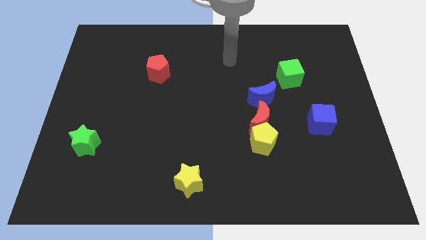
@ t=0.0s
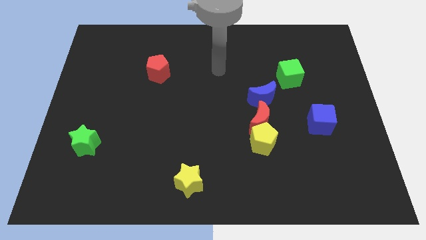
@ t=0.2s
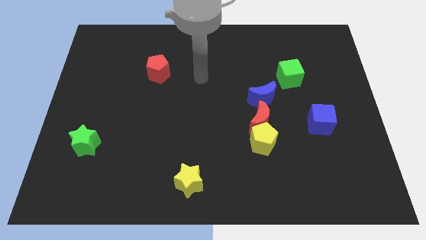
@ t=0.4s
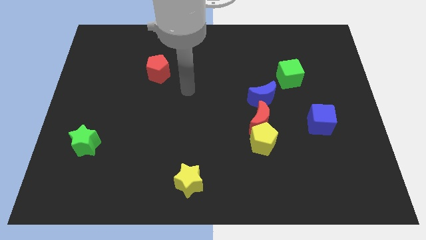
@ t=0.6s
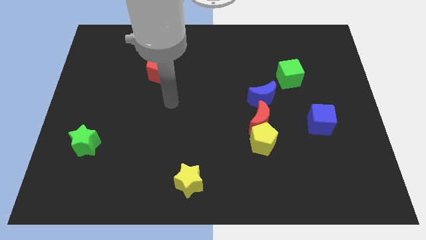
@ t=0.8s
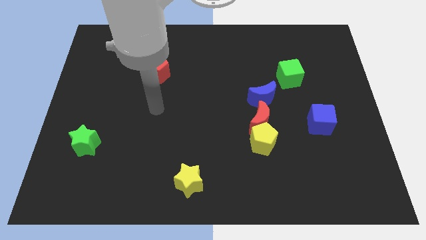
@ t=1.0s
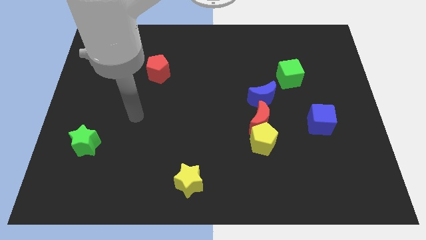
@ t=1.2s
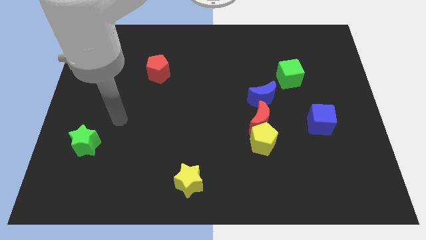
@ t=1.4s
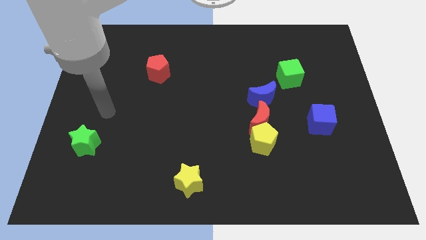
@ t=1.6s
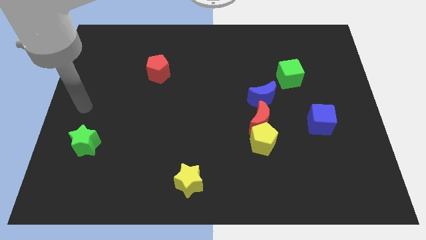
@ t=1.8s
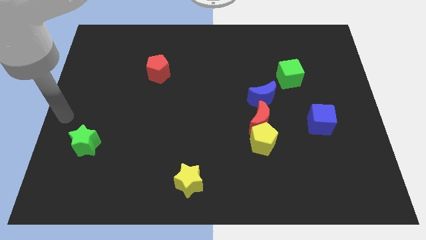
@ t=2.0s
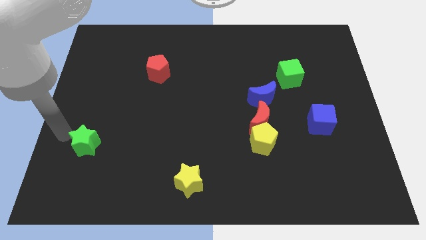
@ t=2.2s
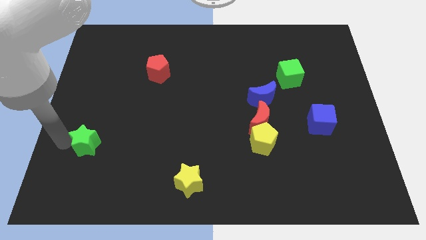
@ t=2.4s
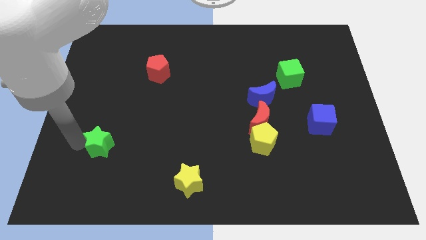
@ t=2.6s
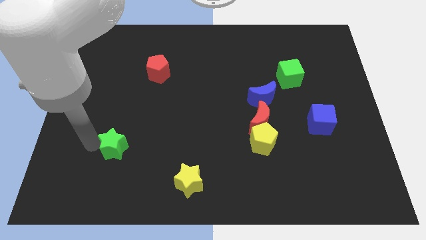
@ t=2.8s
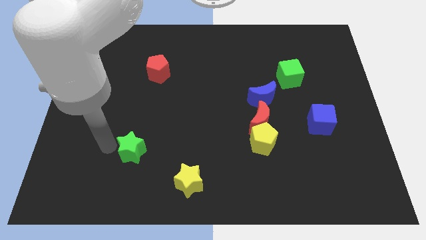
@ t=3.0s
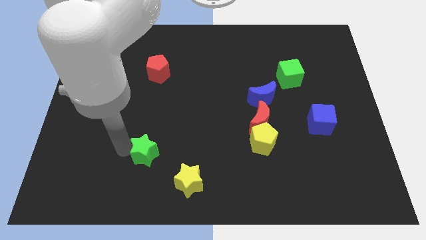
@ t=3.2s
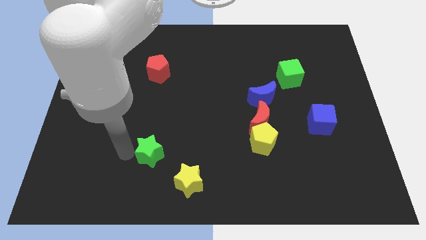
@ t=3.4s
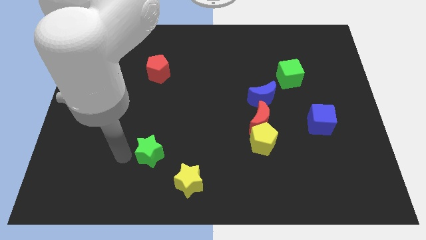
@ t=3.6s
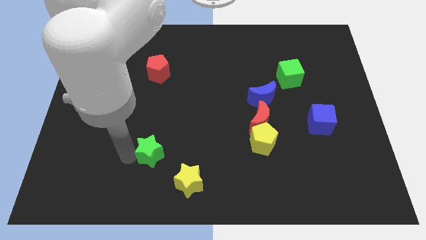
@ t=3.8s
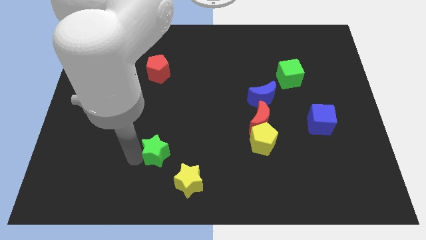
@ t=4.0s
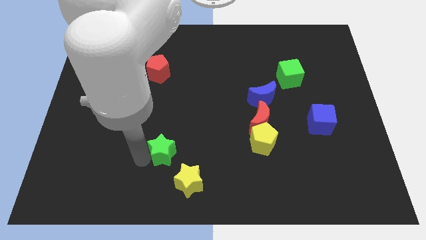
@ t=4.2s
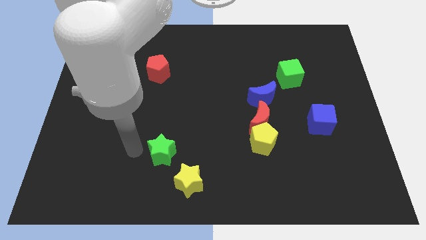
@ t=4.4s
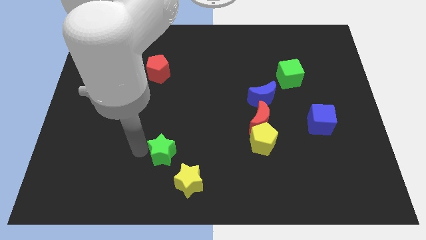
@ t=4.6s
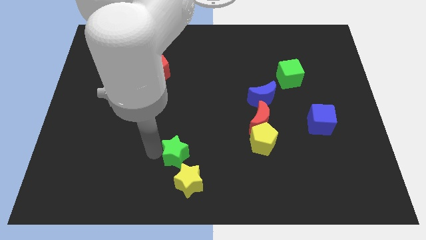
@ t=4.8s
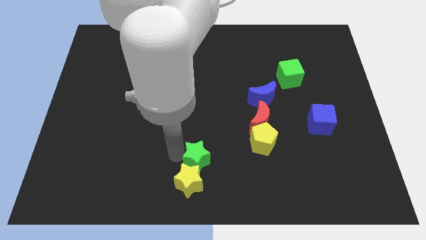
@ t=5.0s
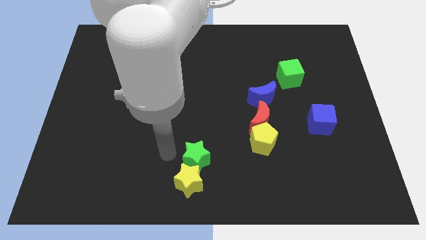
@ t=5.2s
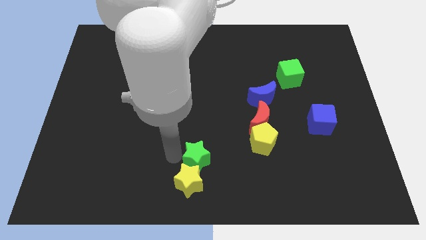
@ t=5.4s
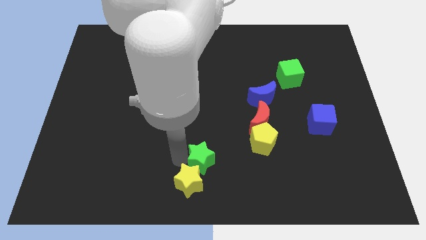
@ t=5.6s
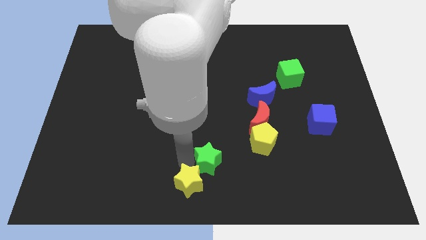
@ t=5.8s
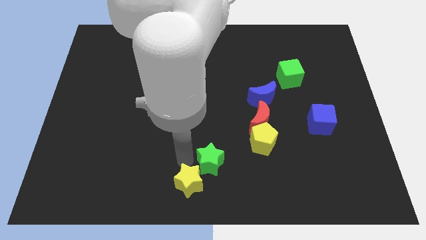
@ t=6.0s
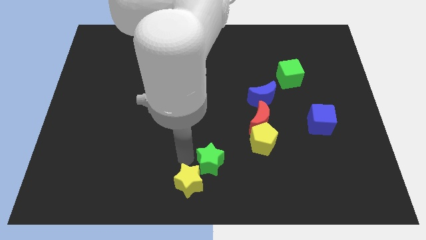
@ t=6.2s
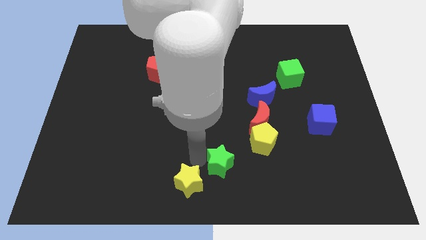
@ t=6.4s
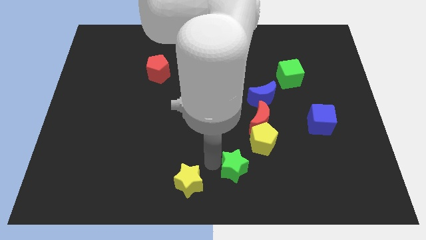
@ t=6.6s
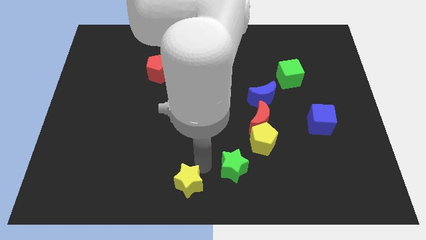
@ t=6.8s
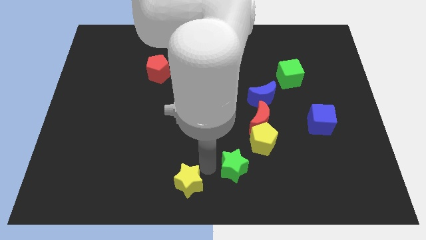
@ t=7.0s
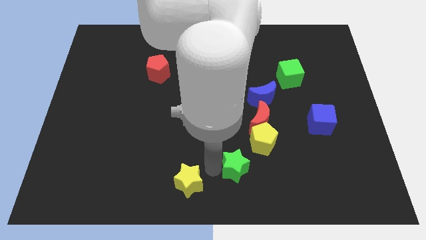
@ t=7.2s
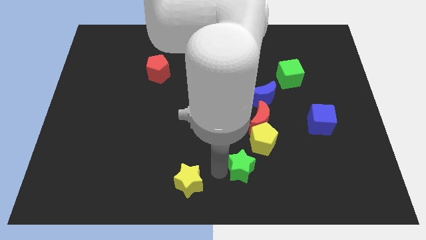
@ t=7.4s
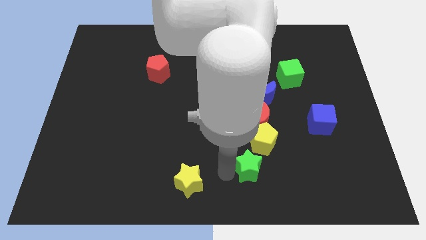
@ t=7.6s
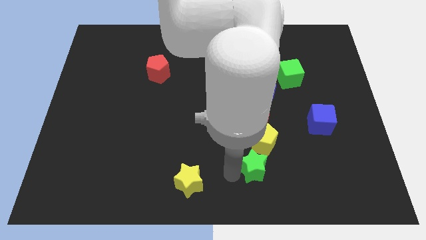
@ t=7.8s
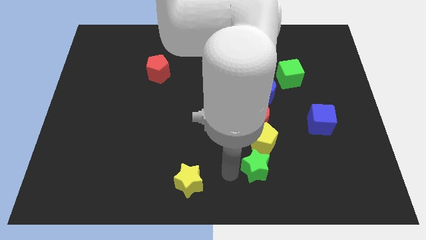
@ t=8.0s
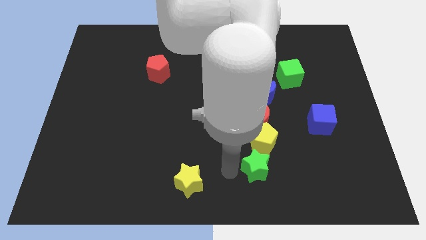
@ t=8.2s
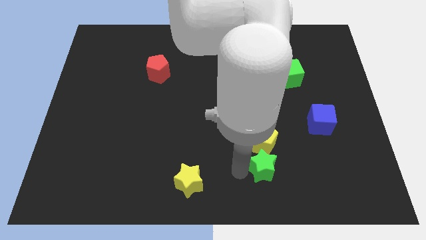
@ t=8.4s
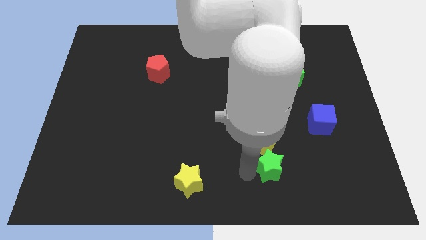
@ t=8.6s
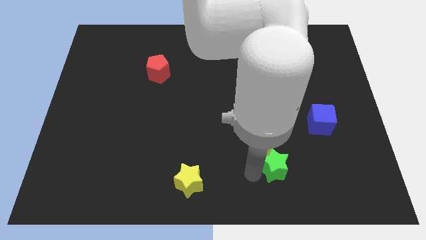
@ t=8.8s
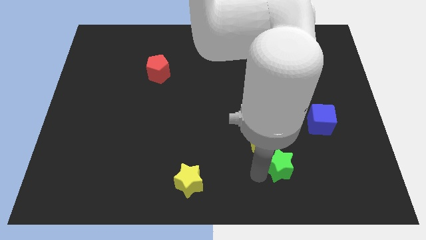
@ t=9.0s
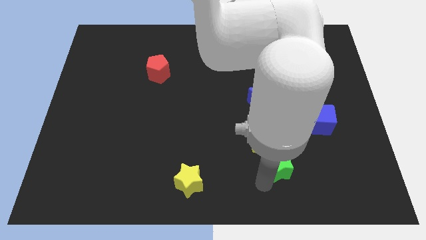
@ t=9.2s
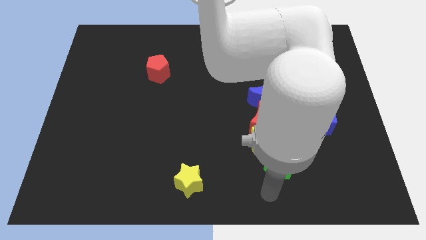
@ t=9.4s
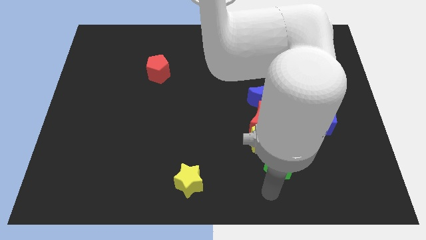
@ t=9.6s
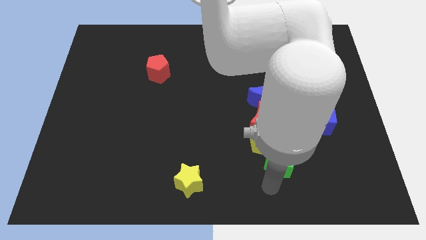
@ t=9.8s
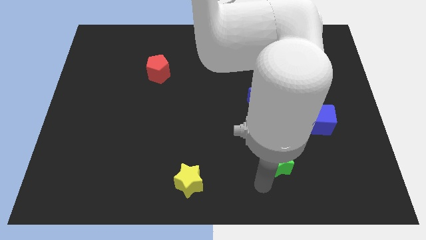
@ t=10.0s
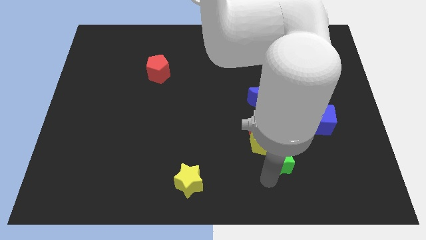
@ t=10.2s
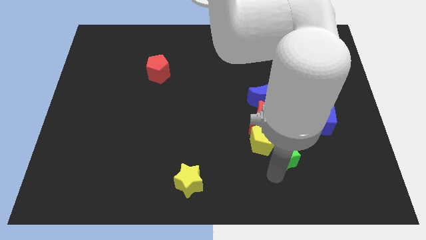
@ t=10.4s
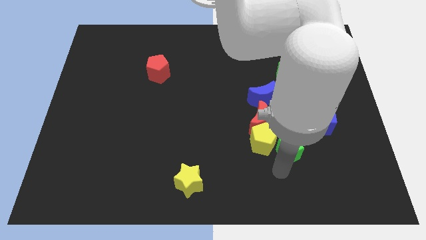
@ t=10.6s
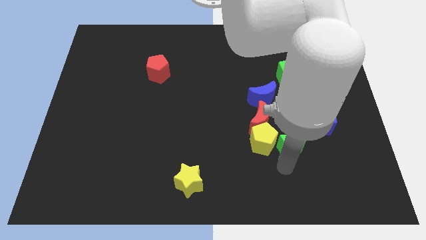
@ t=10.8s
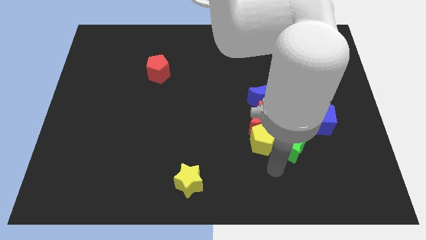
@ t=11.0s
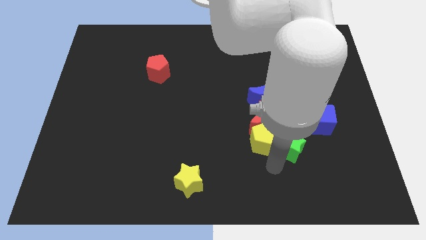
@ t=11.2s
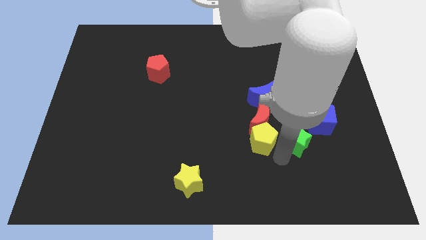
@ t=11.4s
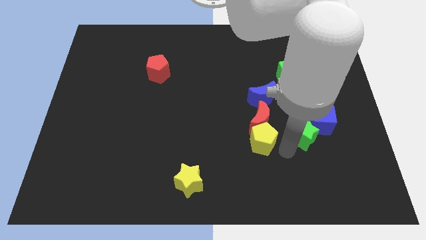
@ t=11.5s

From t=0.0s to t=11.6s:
push the green star next to the blue cube

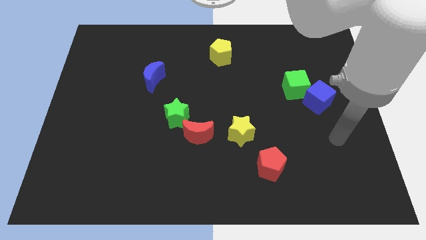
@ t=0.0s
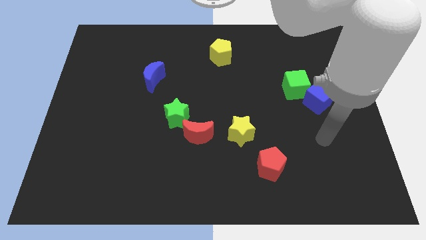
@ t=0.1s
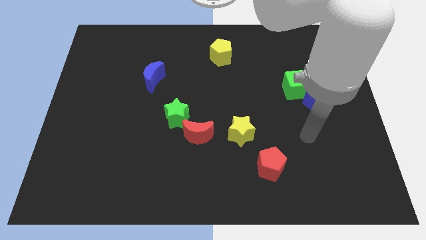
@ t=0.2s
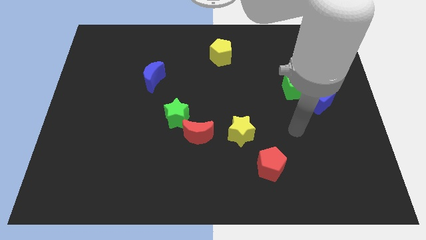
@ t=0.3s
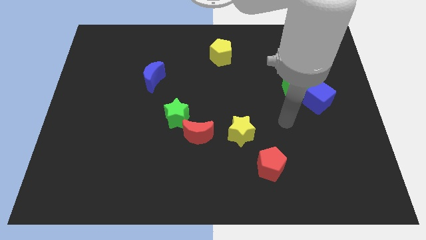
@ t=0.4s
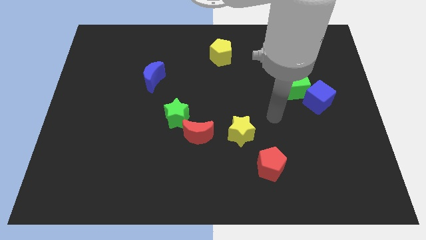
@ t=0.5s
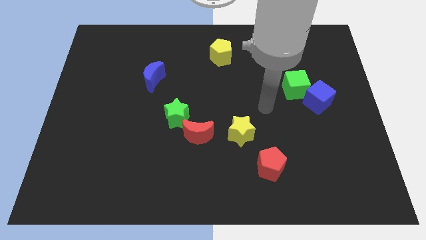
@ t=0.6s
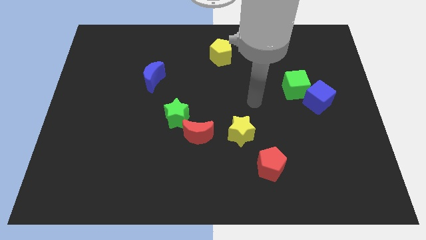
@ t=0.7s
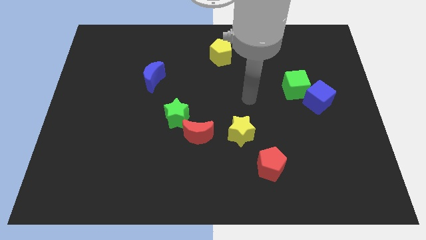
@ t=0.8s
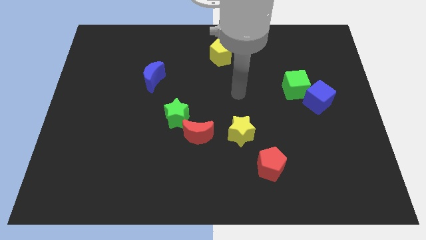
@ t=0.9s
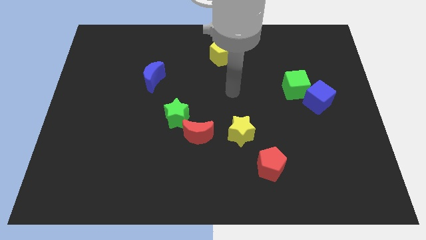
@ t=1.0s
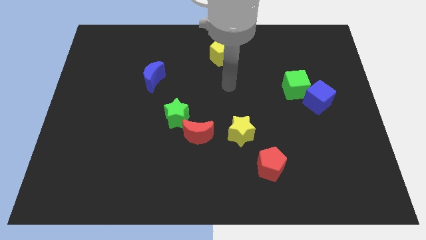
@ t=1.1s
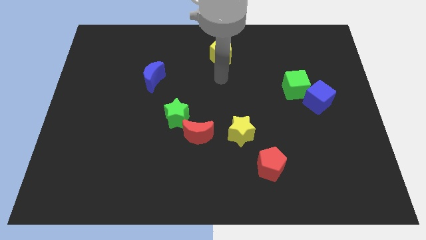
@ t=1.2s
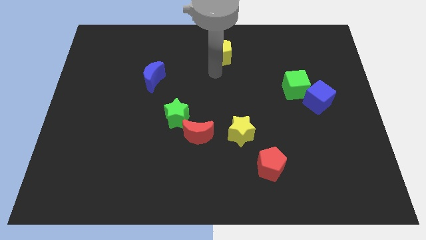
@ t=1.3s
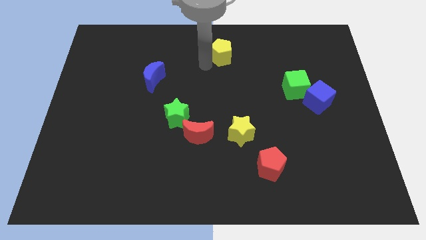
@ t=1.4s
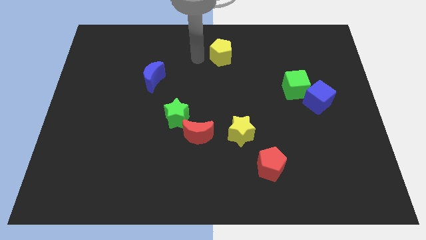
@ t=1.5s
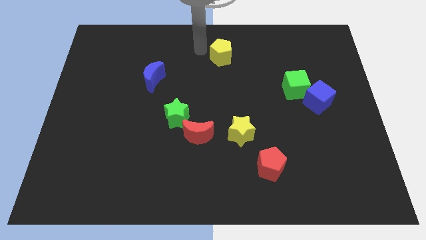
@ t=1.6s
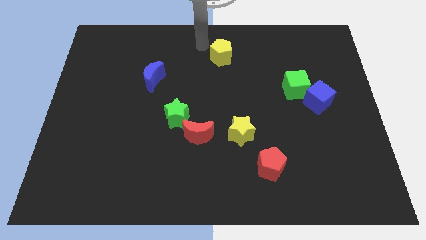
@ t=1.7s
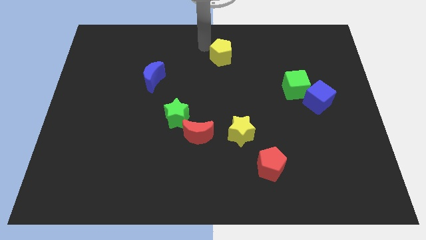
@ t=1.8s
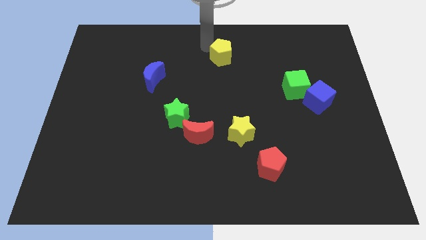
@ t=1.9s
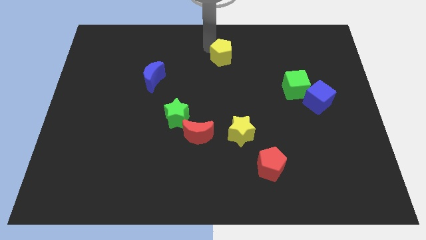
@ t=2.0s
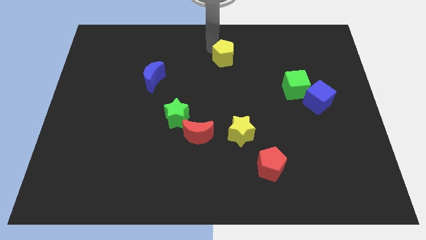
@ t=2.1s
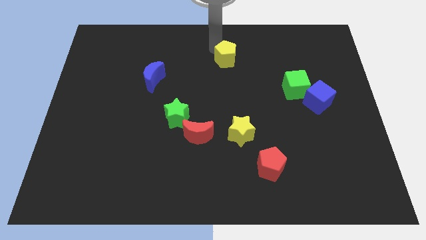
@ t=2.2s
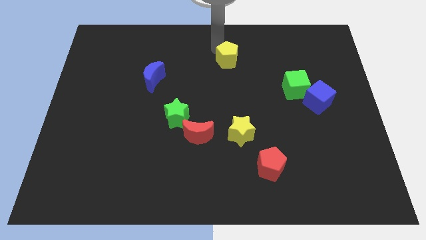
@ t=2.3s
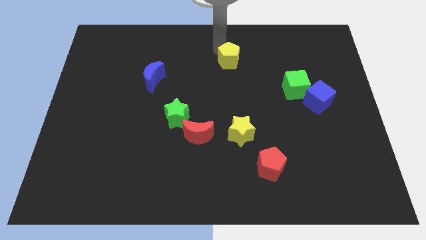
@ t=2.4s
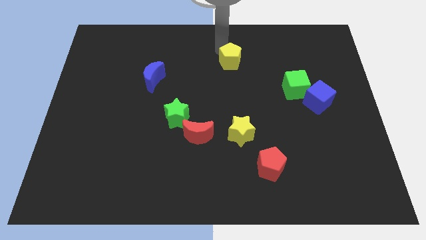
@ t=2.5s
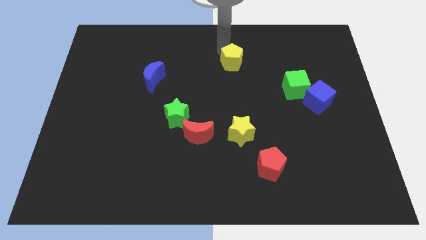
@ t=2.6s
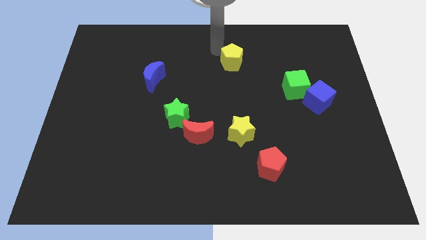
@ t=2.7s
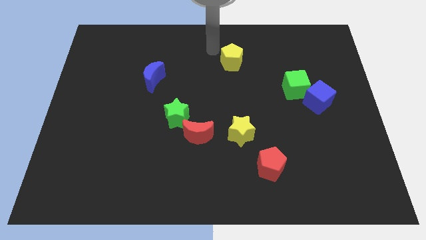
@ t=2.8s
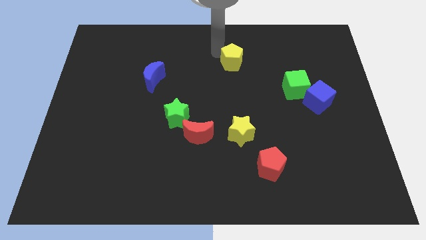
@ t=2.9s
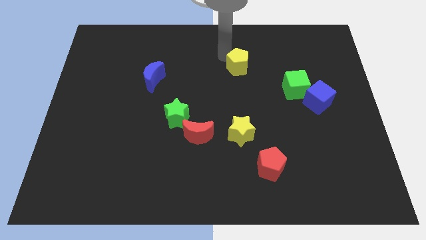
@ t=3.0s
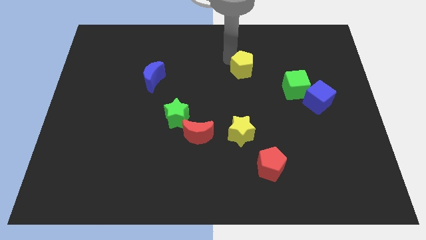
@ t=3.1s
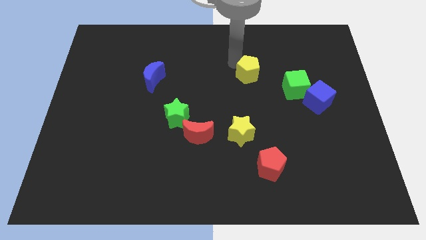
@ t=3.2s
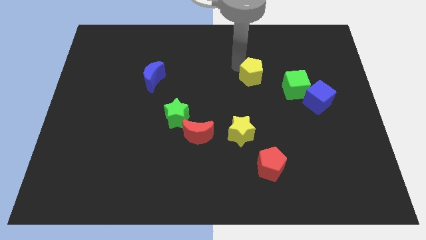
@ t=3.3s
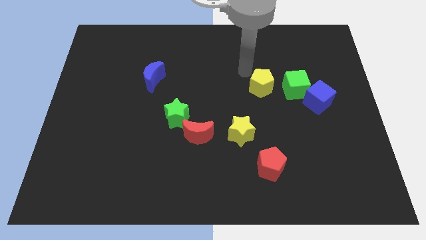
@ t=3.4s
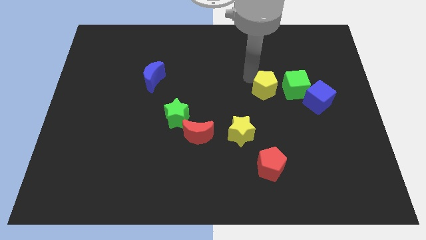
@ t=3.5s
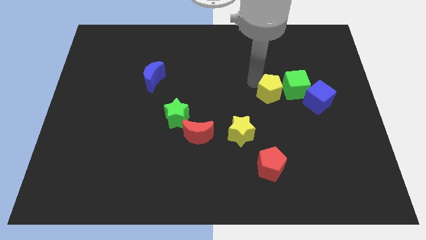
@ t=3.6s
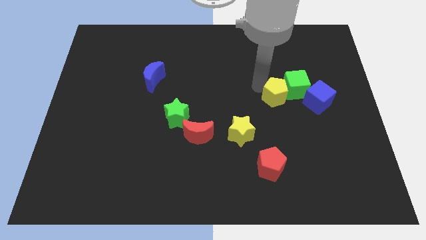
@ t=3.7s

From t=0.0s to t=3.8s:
push the yellow pentagon to the green cube
